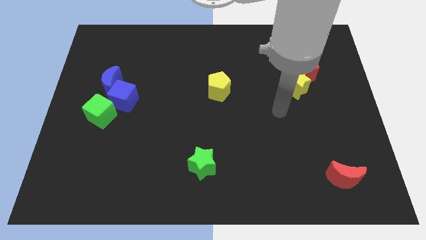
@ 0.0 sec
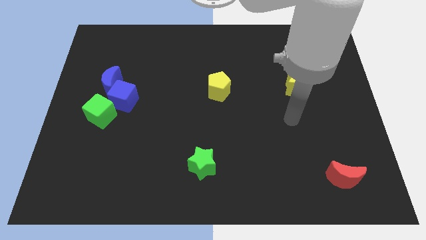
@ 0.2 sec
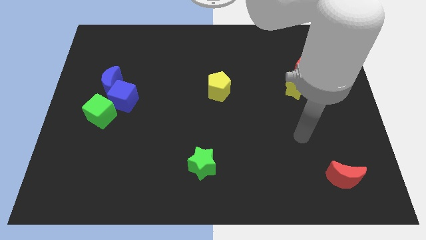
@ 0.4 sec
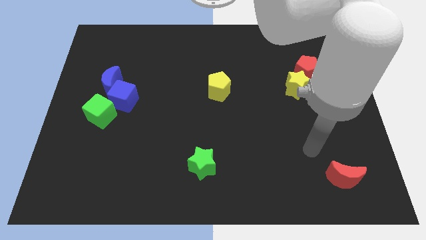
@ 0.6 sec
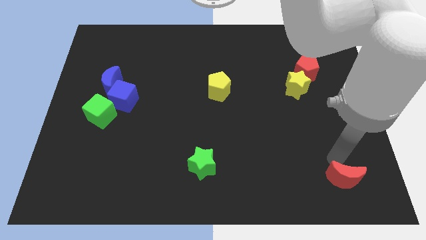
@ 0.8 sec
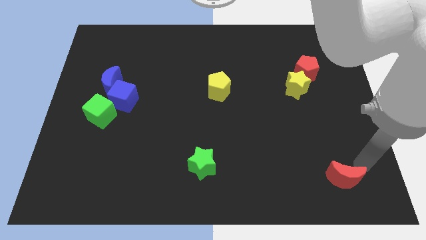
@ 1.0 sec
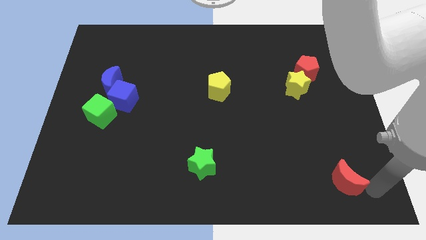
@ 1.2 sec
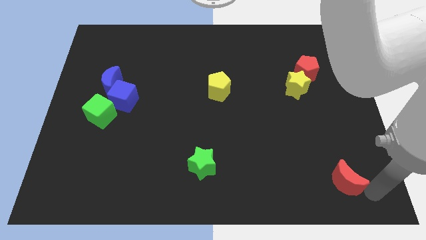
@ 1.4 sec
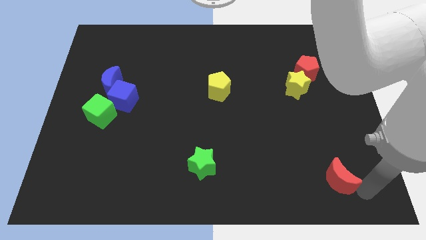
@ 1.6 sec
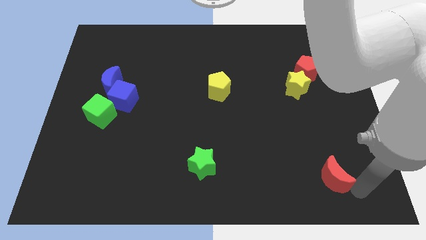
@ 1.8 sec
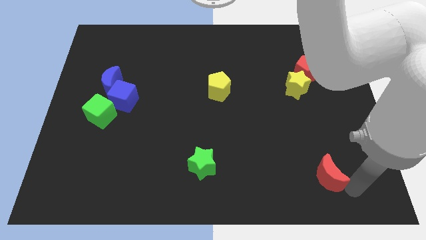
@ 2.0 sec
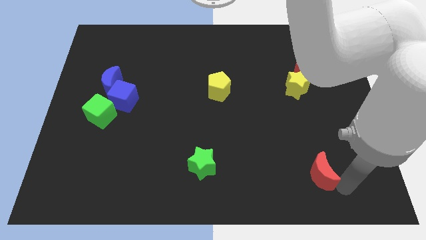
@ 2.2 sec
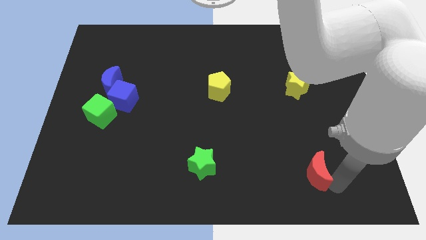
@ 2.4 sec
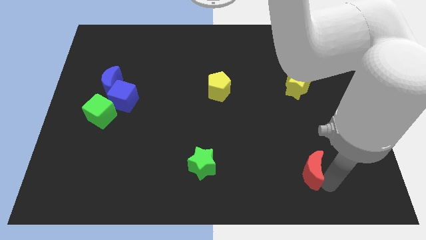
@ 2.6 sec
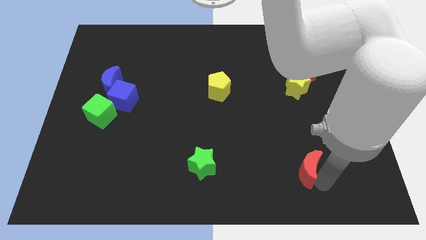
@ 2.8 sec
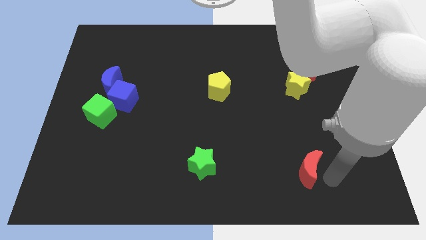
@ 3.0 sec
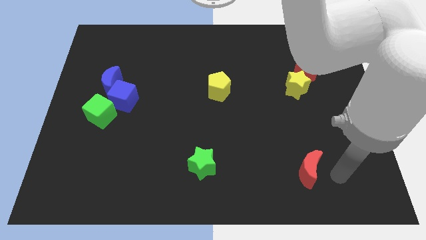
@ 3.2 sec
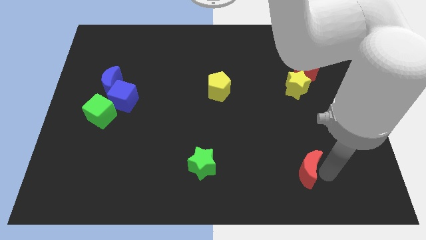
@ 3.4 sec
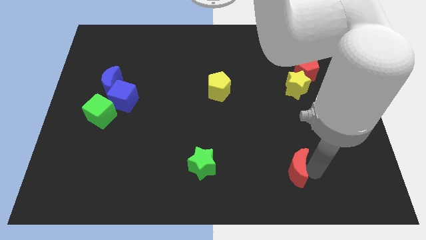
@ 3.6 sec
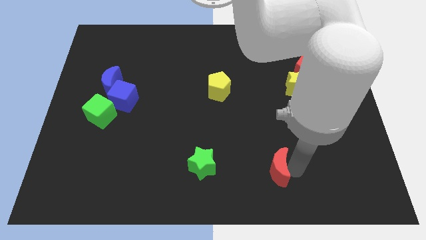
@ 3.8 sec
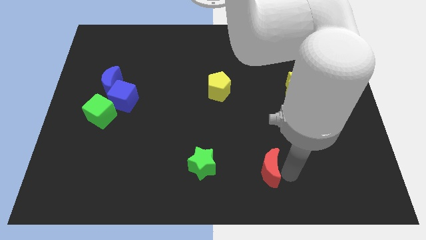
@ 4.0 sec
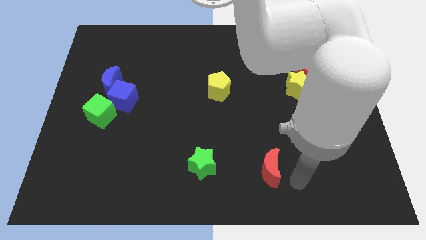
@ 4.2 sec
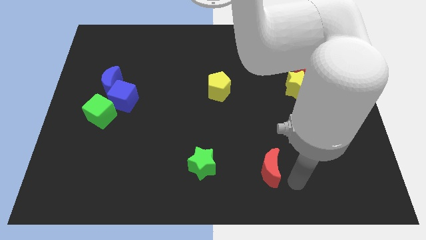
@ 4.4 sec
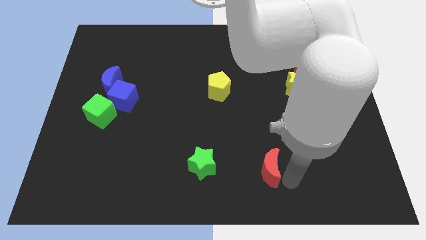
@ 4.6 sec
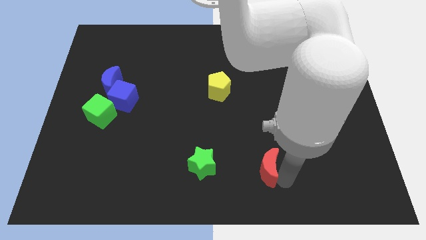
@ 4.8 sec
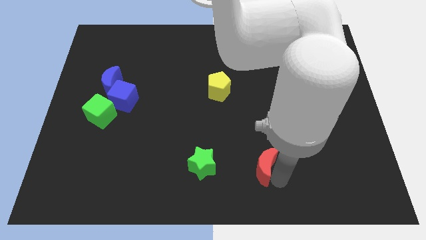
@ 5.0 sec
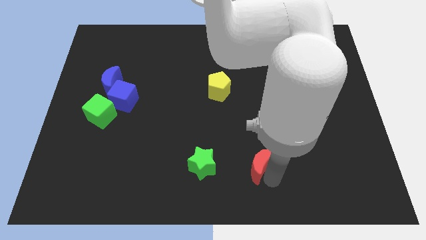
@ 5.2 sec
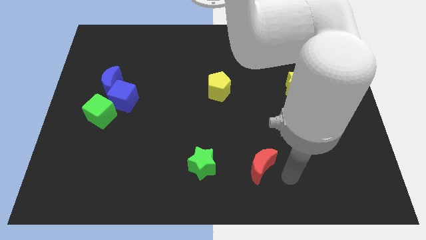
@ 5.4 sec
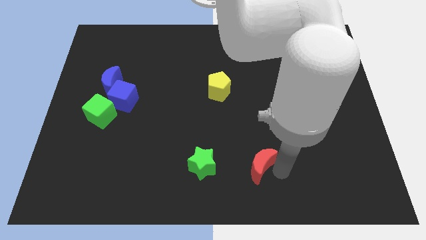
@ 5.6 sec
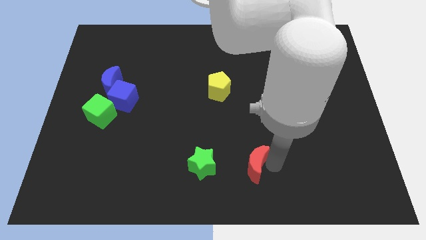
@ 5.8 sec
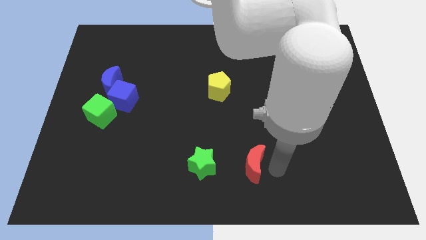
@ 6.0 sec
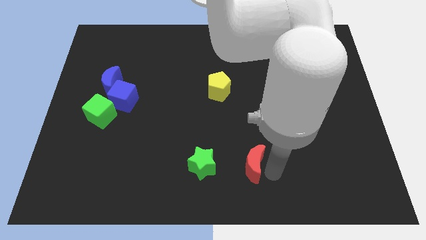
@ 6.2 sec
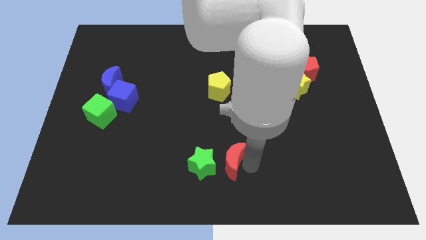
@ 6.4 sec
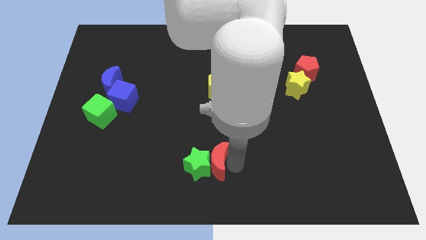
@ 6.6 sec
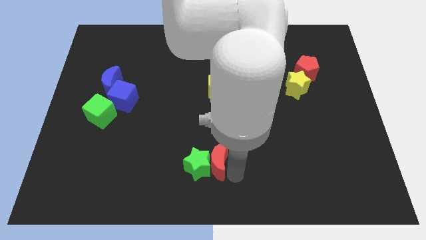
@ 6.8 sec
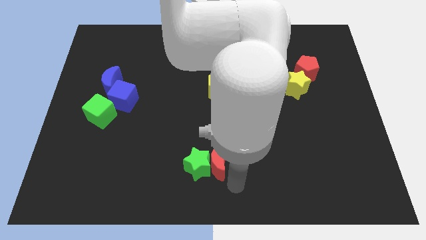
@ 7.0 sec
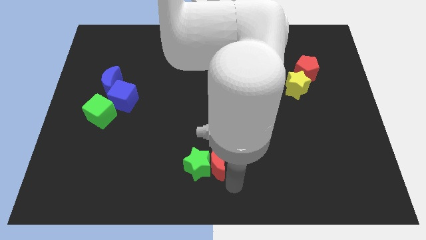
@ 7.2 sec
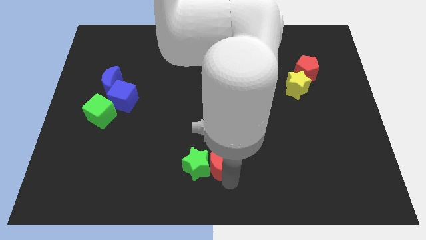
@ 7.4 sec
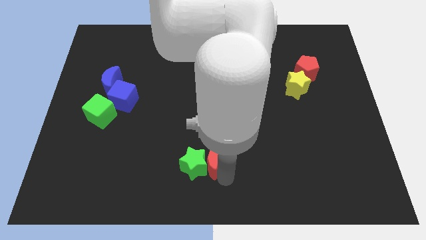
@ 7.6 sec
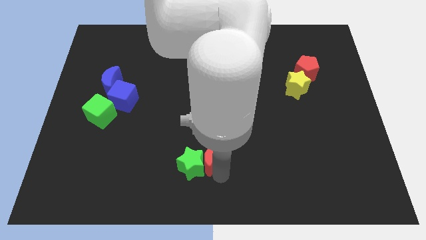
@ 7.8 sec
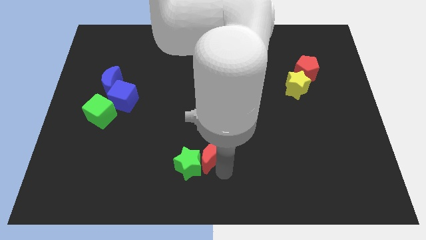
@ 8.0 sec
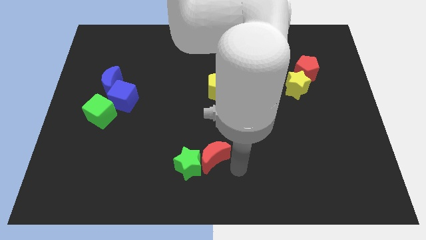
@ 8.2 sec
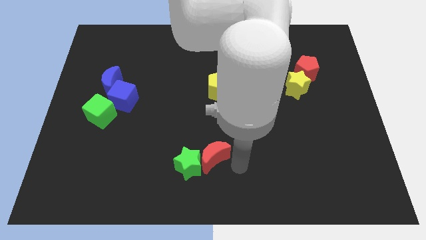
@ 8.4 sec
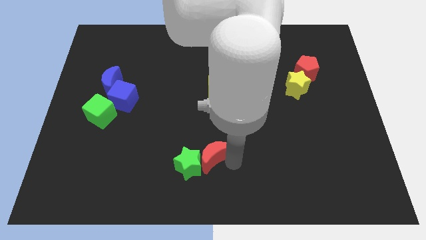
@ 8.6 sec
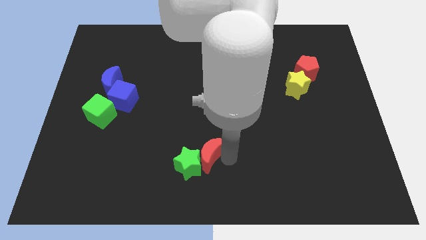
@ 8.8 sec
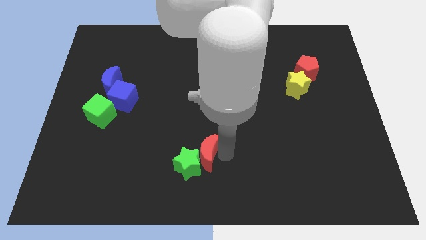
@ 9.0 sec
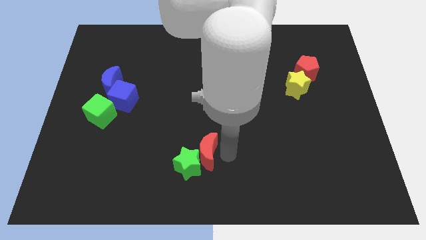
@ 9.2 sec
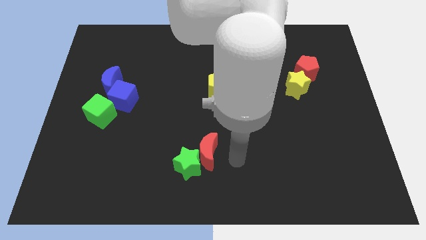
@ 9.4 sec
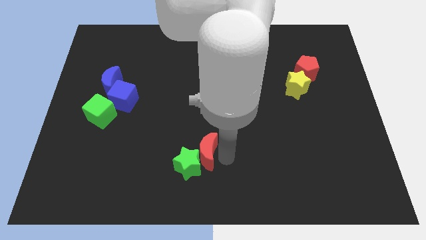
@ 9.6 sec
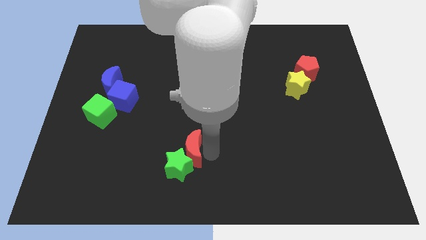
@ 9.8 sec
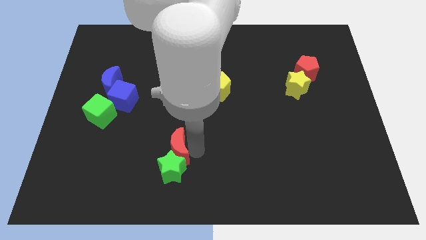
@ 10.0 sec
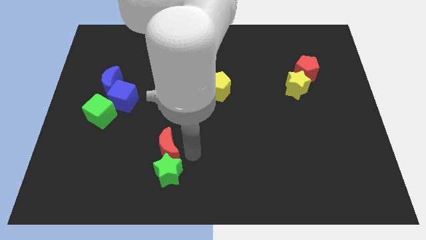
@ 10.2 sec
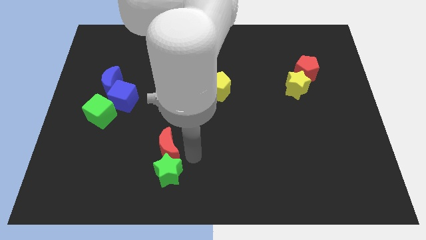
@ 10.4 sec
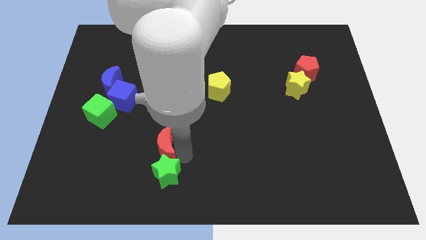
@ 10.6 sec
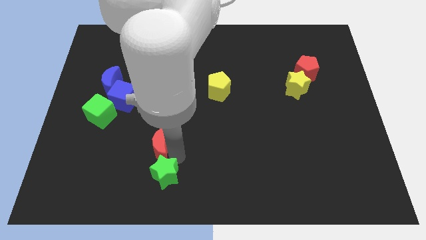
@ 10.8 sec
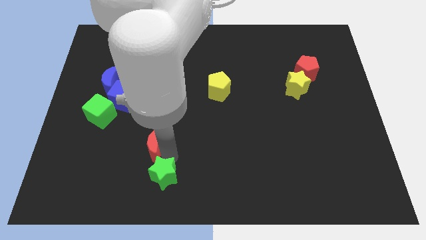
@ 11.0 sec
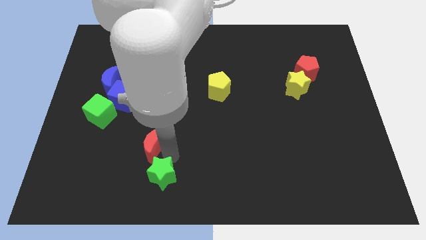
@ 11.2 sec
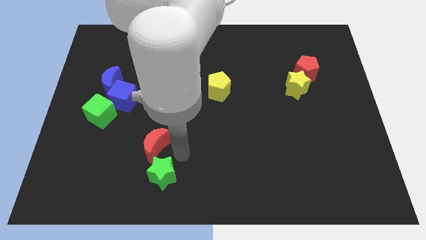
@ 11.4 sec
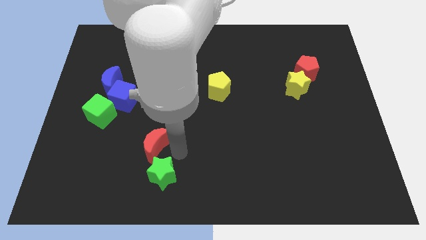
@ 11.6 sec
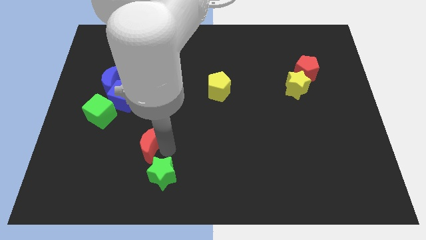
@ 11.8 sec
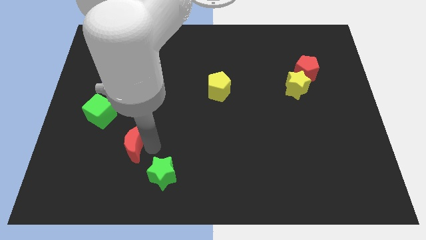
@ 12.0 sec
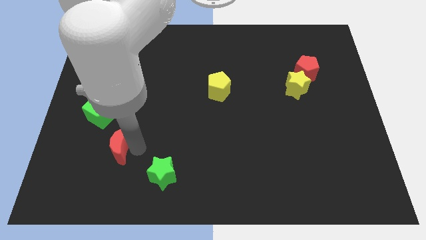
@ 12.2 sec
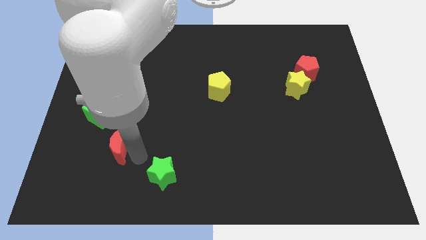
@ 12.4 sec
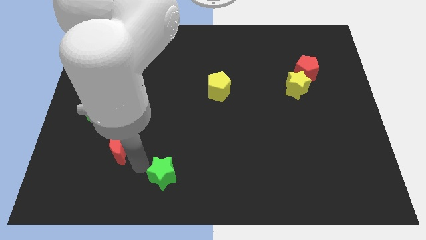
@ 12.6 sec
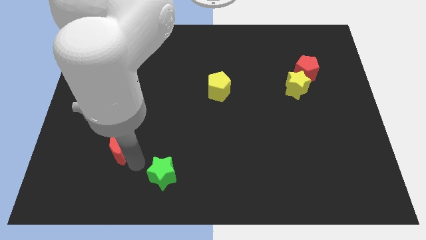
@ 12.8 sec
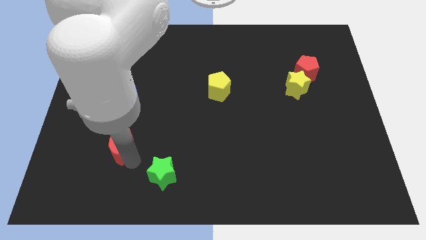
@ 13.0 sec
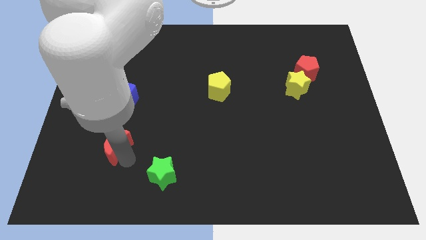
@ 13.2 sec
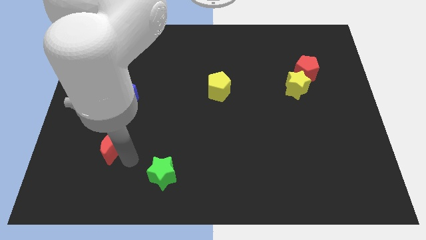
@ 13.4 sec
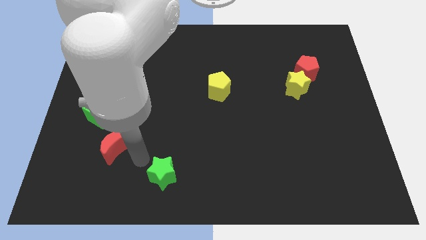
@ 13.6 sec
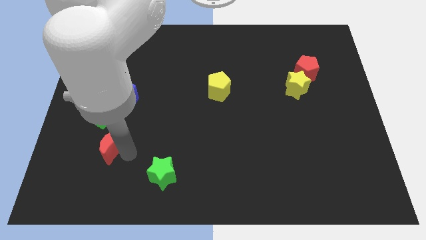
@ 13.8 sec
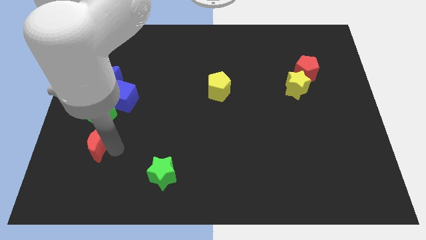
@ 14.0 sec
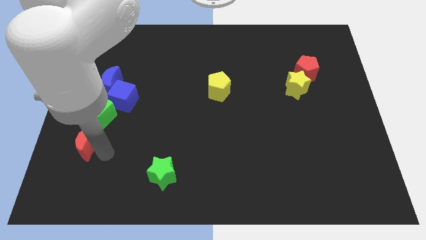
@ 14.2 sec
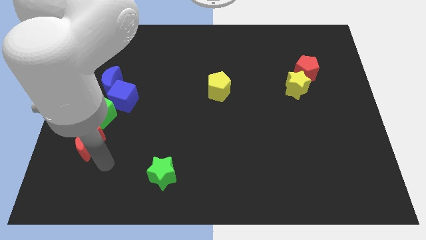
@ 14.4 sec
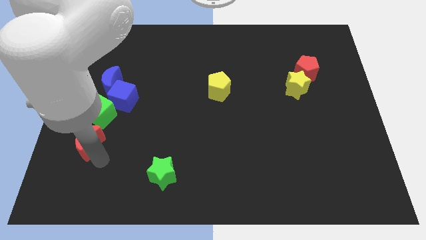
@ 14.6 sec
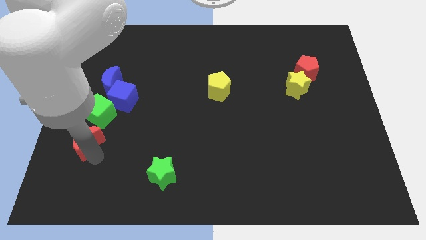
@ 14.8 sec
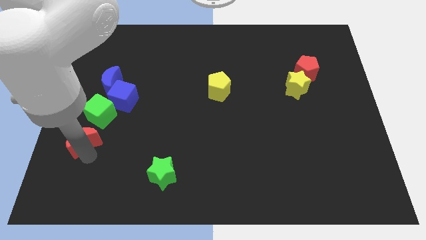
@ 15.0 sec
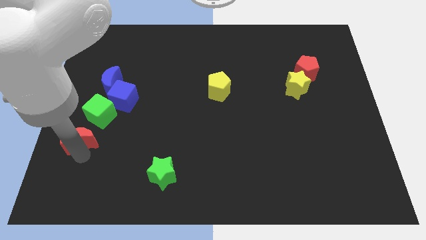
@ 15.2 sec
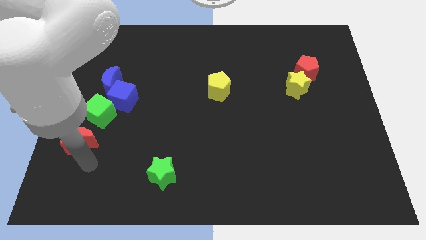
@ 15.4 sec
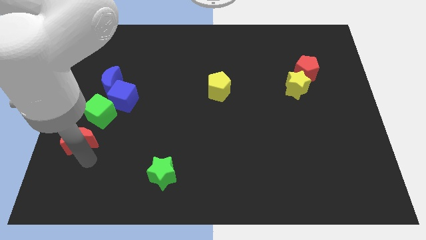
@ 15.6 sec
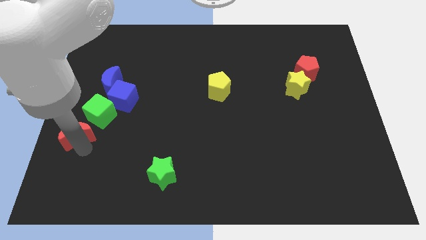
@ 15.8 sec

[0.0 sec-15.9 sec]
put the red moon to the left side of the board
